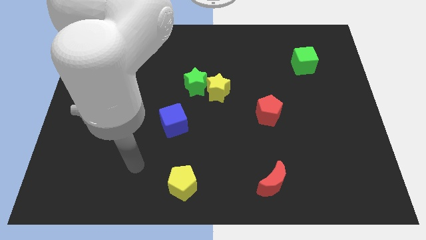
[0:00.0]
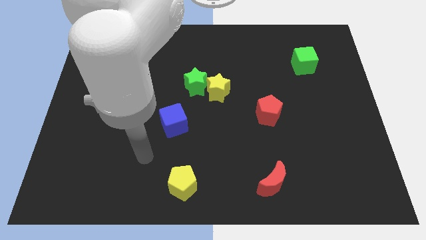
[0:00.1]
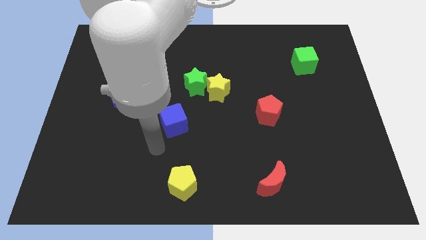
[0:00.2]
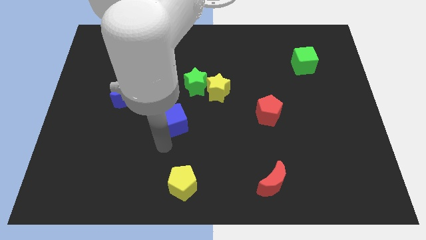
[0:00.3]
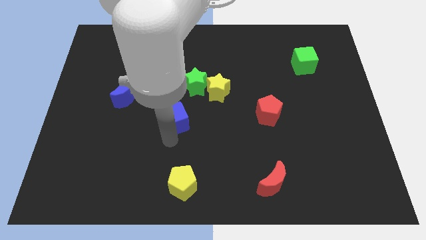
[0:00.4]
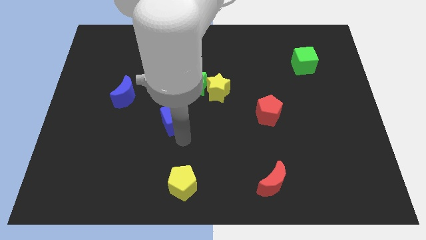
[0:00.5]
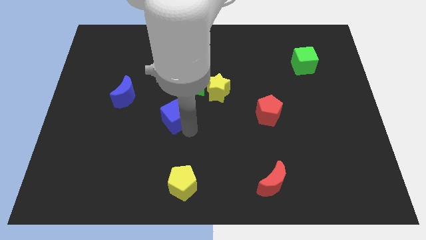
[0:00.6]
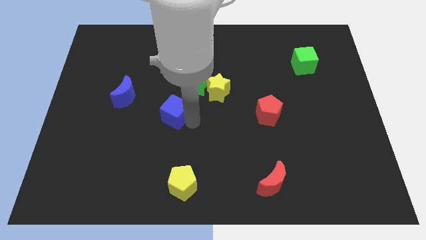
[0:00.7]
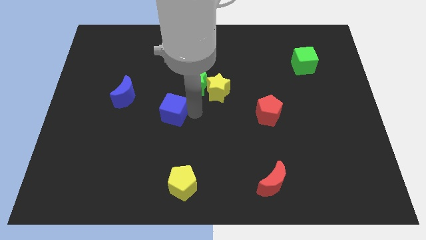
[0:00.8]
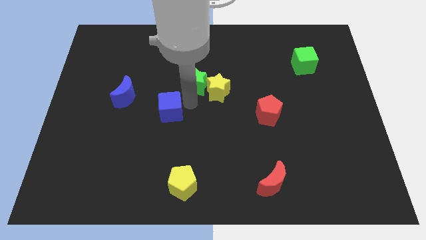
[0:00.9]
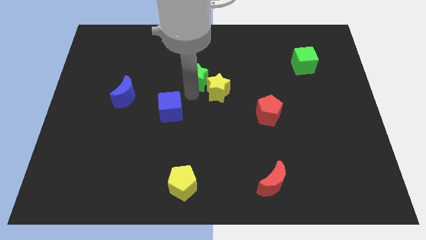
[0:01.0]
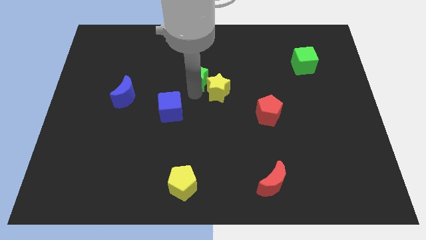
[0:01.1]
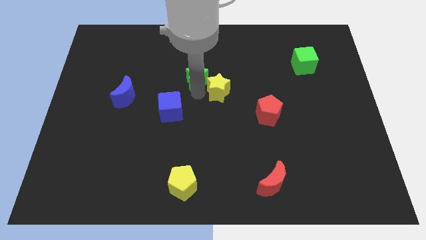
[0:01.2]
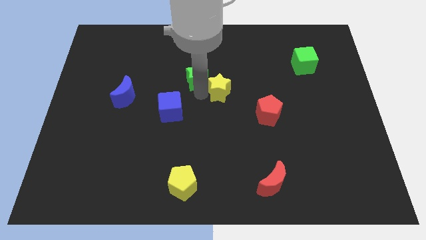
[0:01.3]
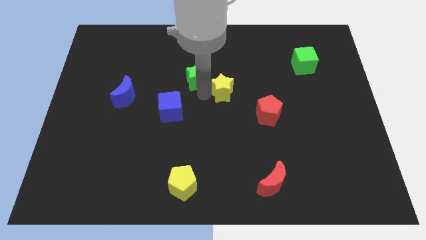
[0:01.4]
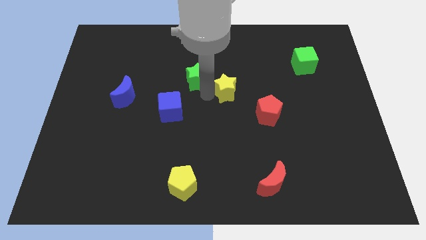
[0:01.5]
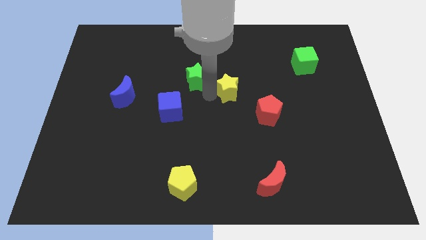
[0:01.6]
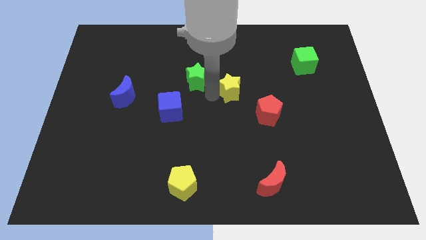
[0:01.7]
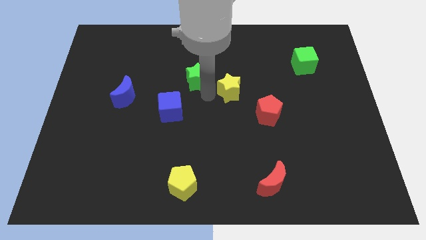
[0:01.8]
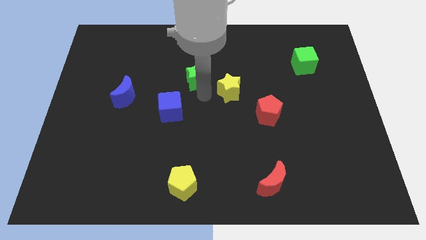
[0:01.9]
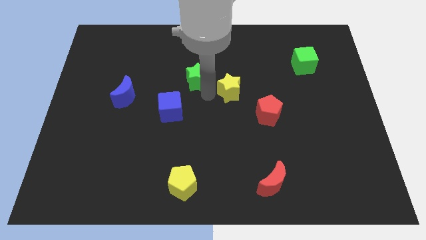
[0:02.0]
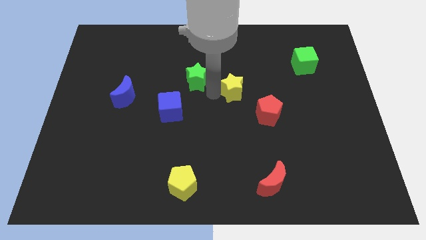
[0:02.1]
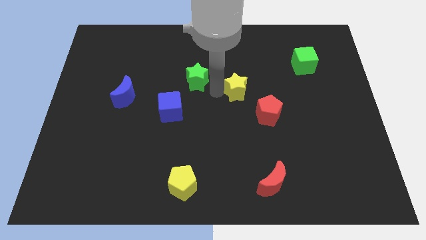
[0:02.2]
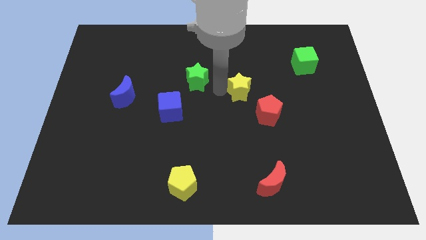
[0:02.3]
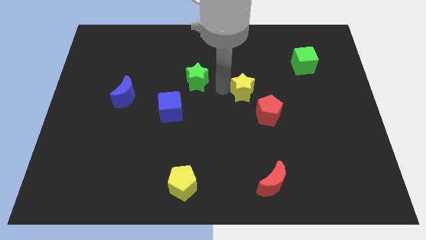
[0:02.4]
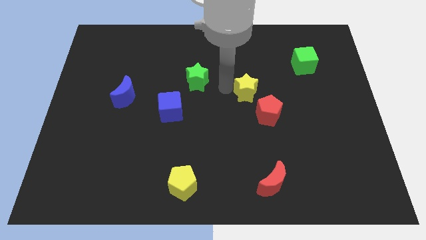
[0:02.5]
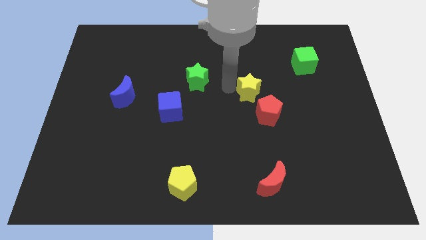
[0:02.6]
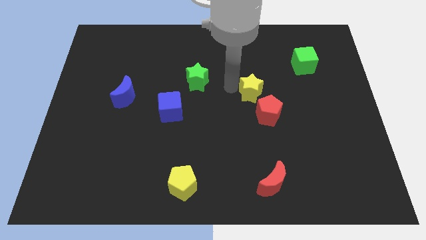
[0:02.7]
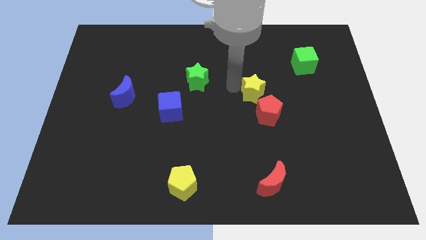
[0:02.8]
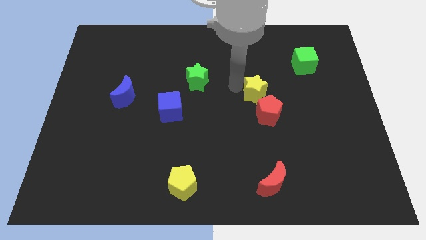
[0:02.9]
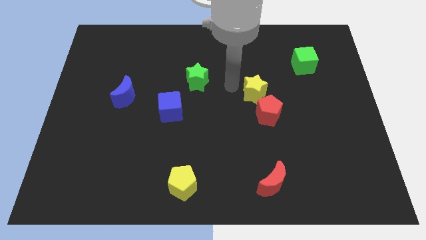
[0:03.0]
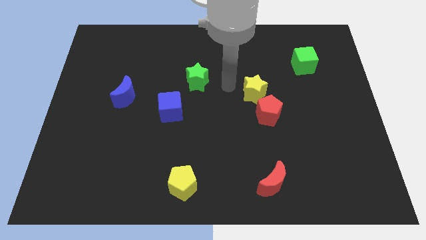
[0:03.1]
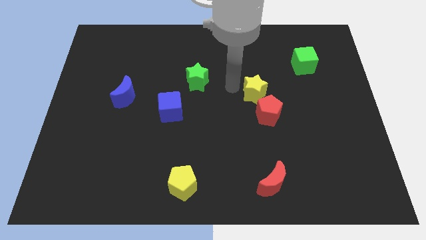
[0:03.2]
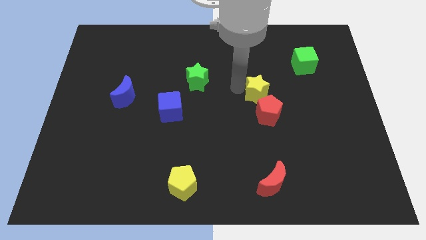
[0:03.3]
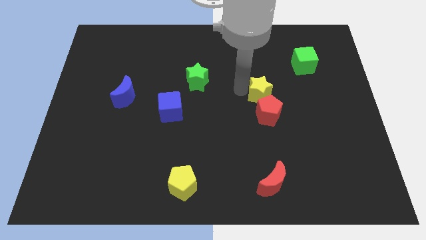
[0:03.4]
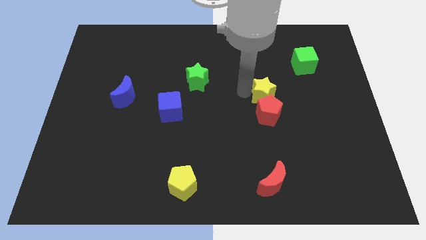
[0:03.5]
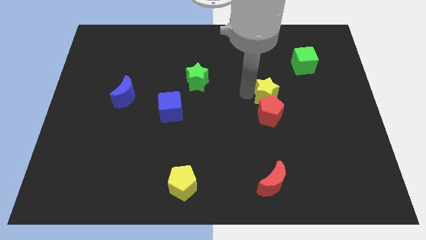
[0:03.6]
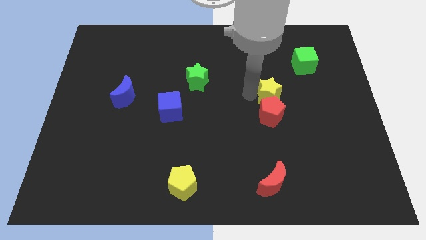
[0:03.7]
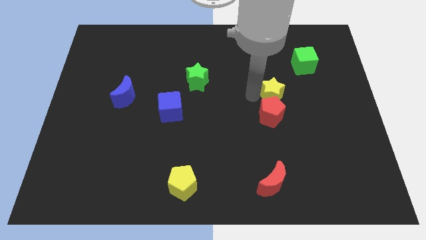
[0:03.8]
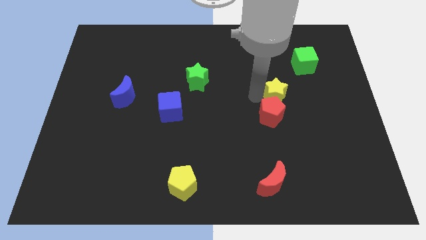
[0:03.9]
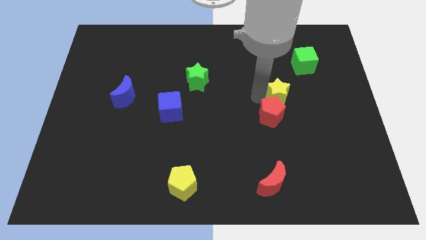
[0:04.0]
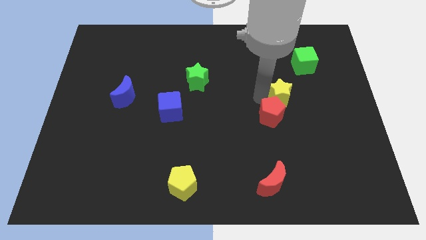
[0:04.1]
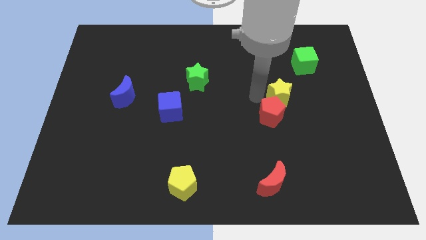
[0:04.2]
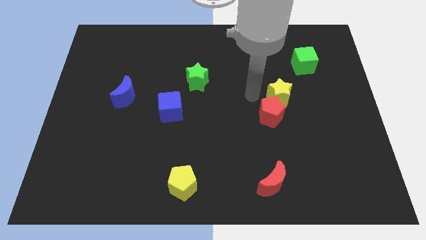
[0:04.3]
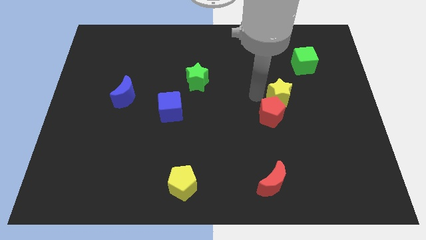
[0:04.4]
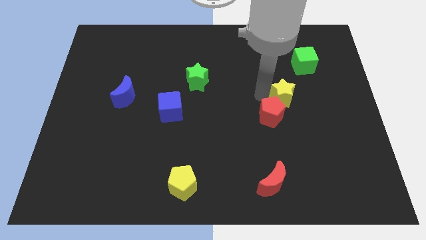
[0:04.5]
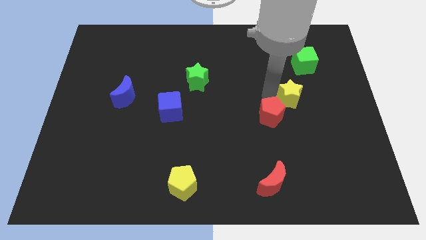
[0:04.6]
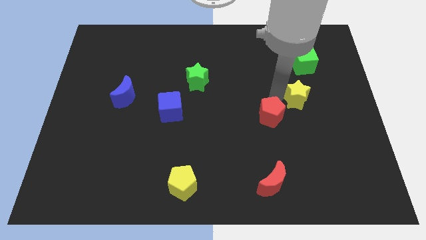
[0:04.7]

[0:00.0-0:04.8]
push the yellow star to the bottom of the green cube

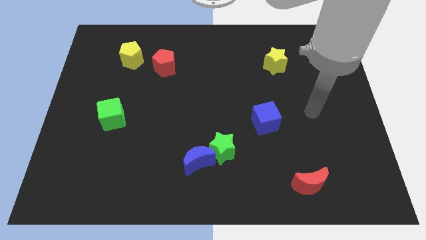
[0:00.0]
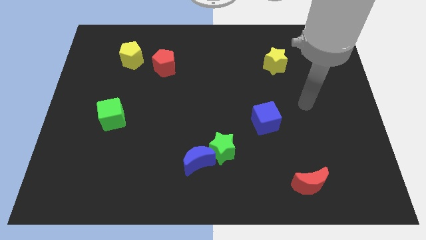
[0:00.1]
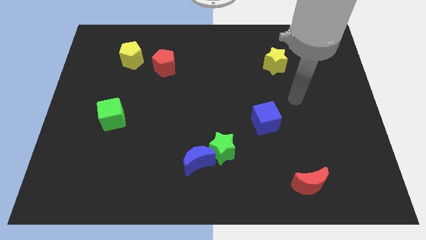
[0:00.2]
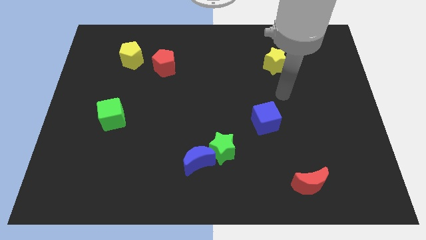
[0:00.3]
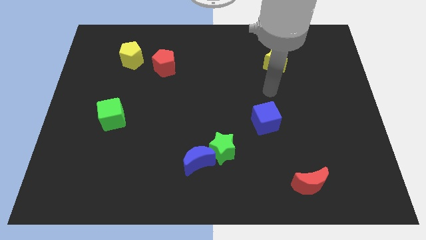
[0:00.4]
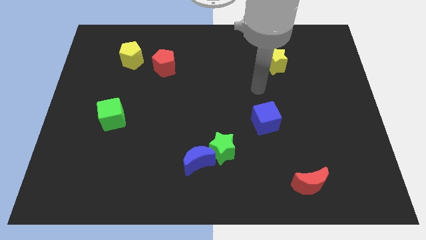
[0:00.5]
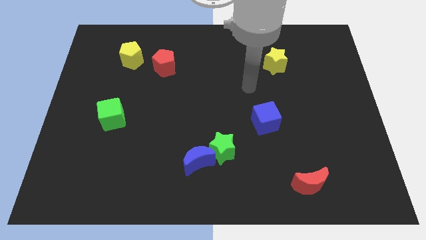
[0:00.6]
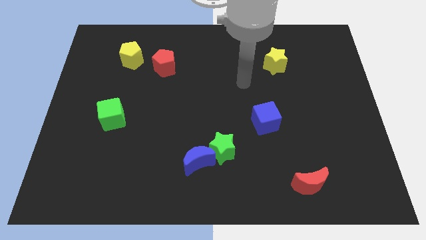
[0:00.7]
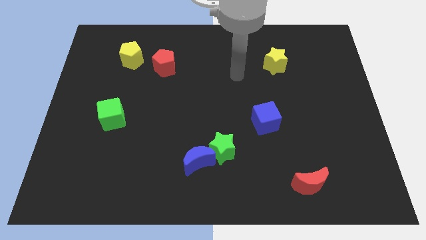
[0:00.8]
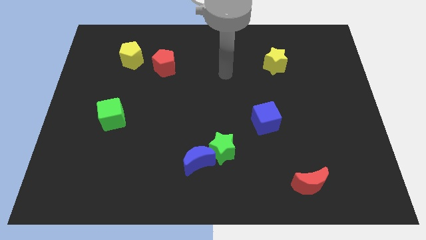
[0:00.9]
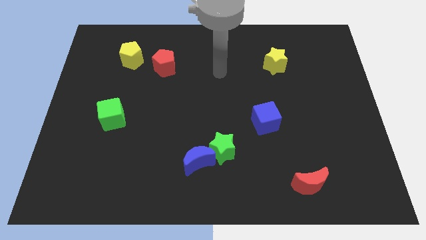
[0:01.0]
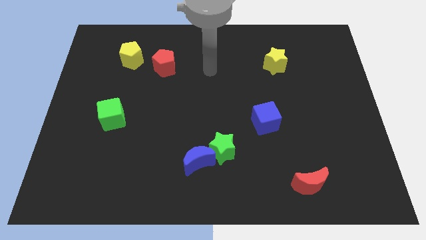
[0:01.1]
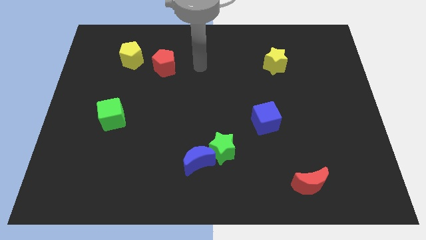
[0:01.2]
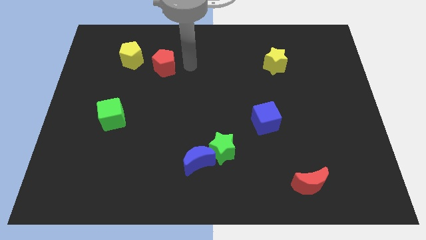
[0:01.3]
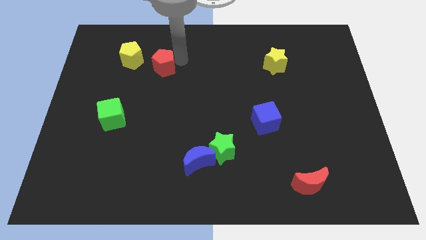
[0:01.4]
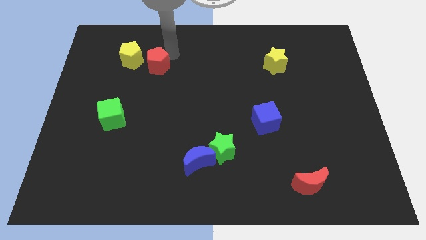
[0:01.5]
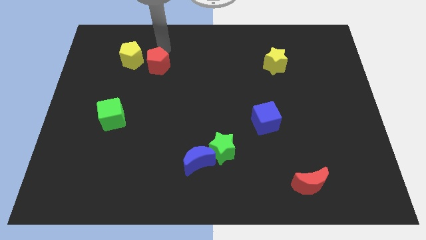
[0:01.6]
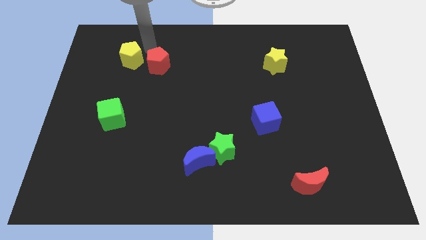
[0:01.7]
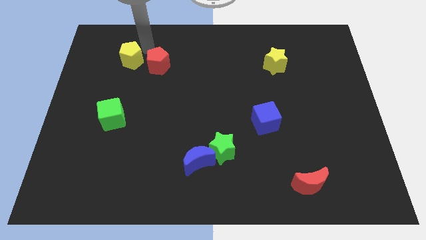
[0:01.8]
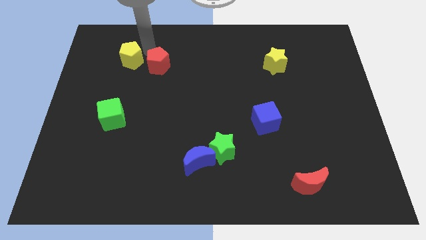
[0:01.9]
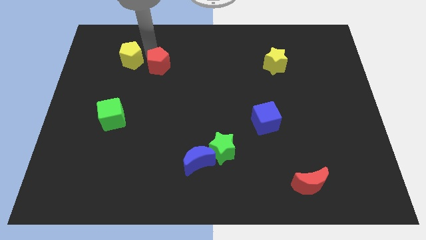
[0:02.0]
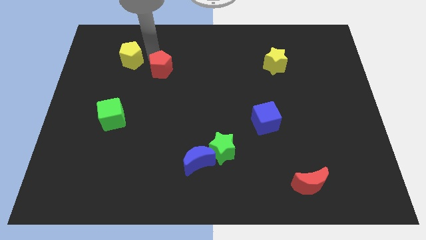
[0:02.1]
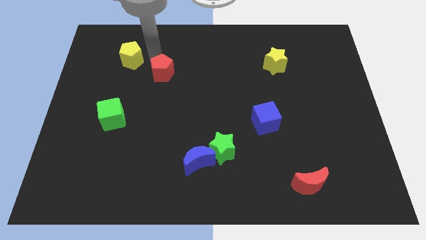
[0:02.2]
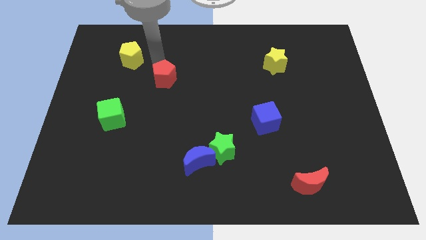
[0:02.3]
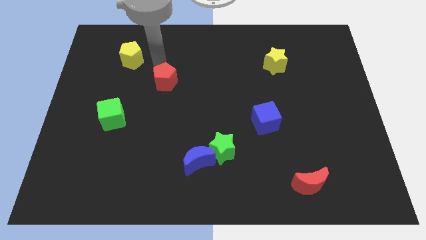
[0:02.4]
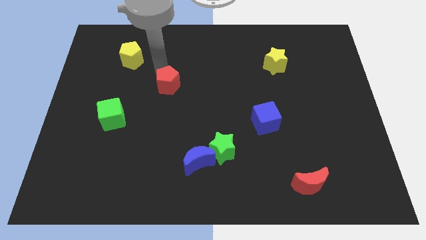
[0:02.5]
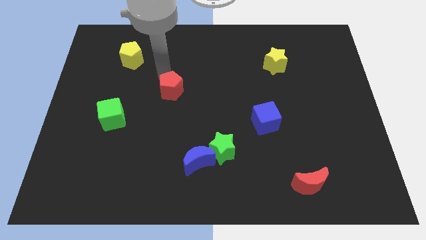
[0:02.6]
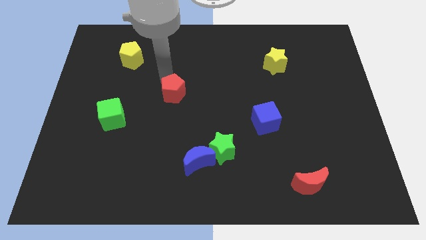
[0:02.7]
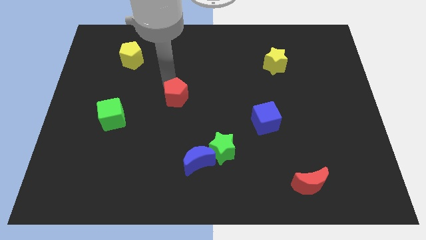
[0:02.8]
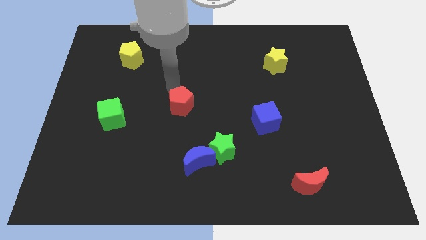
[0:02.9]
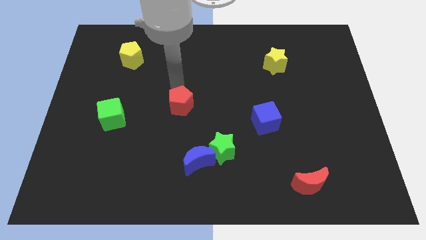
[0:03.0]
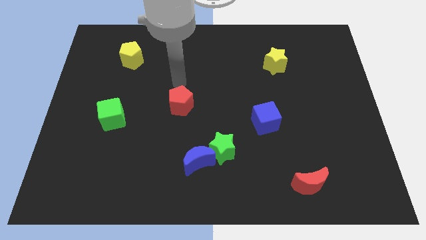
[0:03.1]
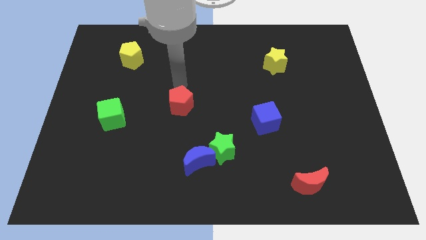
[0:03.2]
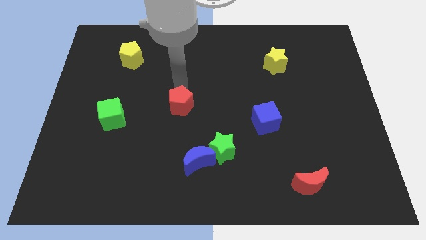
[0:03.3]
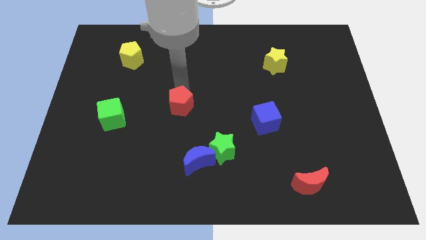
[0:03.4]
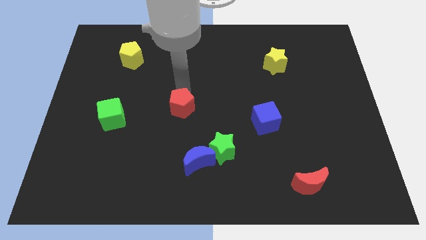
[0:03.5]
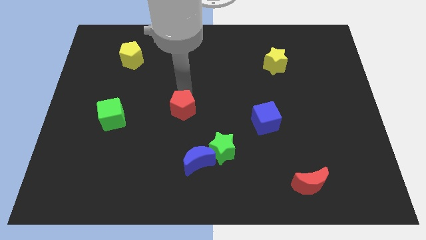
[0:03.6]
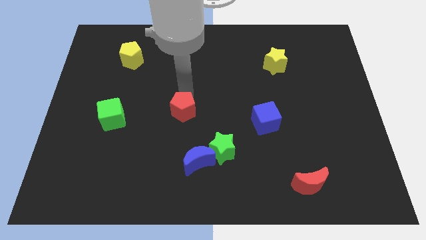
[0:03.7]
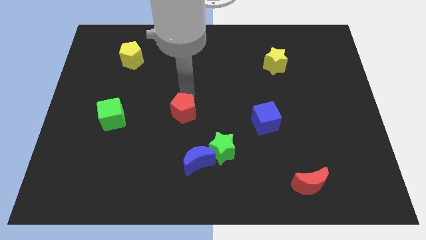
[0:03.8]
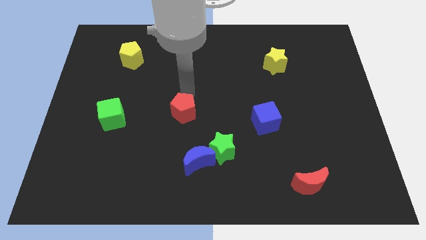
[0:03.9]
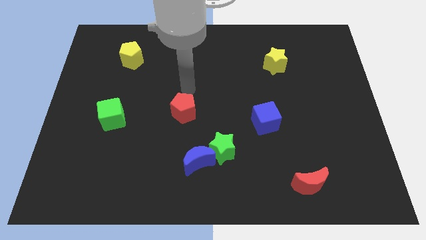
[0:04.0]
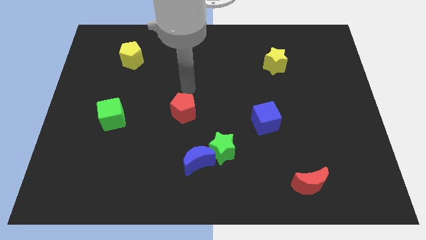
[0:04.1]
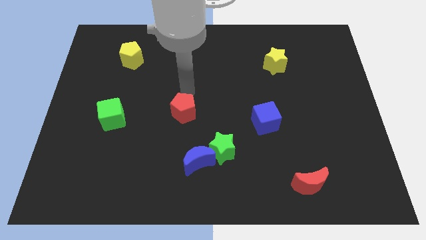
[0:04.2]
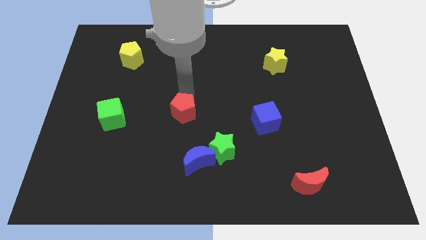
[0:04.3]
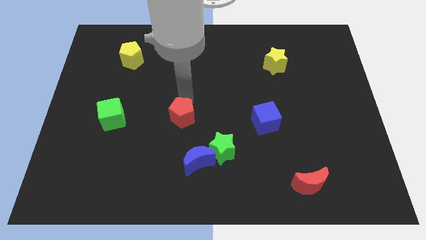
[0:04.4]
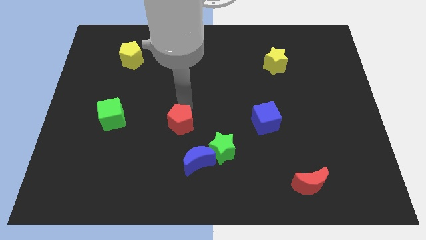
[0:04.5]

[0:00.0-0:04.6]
put the red pentagon diagonally up and to the left of the blue moon
